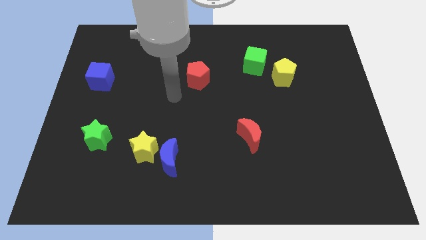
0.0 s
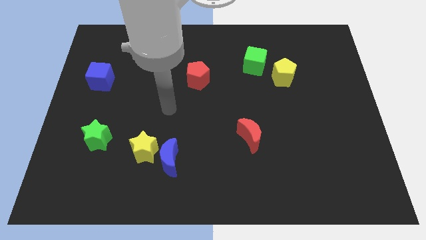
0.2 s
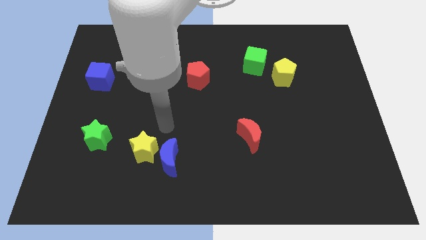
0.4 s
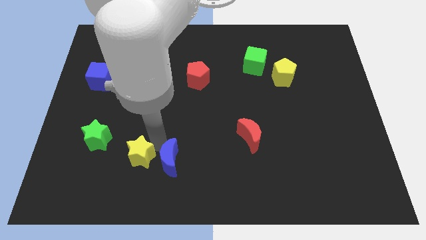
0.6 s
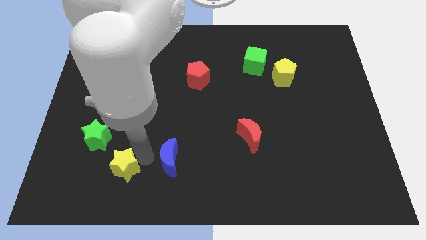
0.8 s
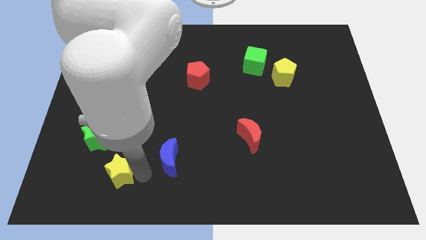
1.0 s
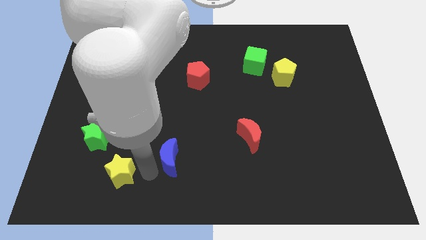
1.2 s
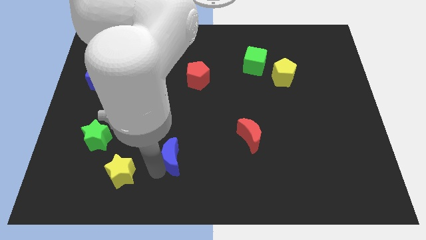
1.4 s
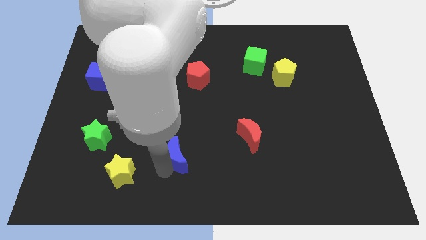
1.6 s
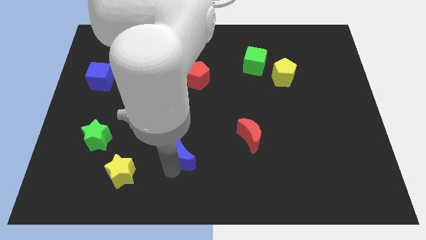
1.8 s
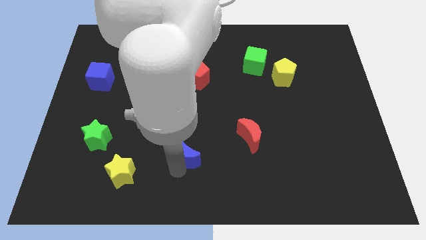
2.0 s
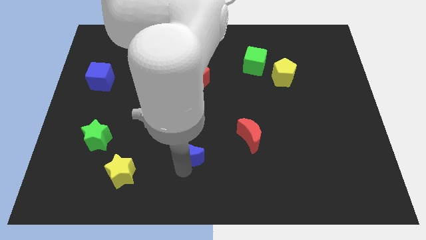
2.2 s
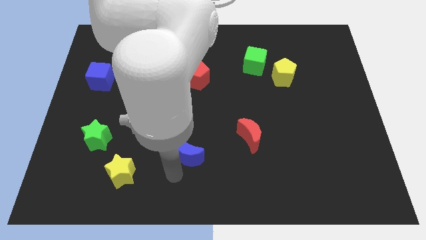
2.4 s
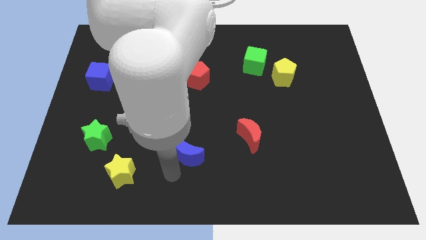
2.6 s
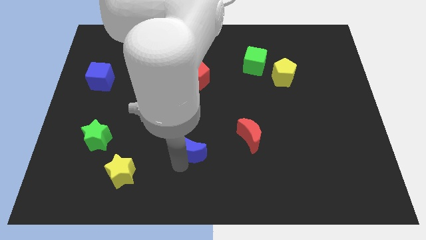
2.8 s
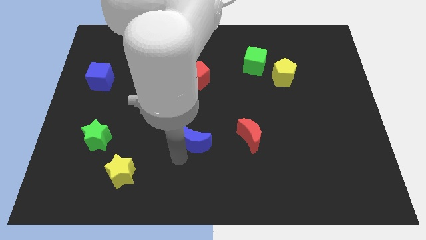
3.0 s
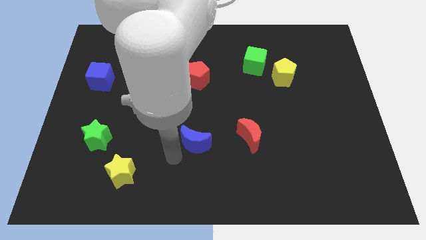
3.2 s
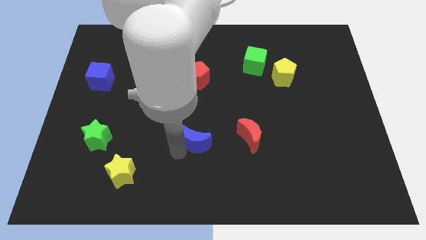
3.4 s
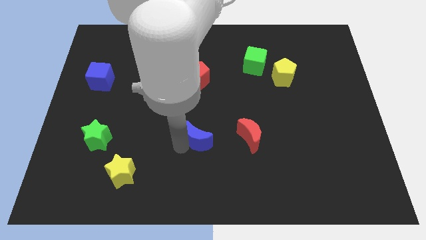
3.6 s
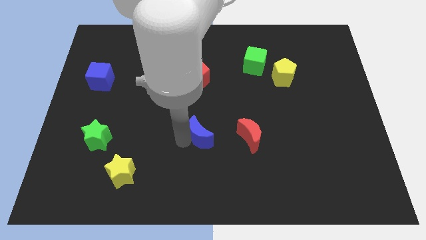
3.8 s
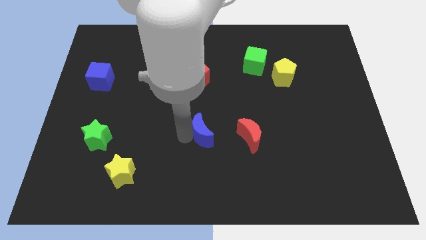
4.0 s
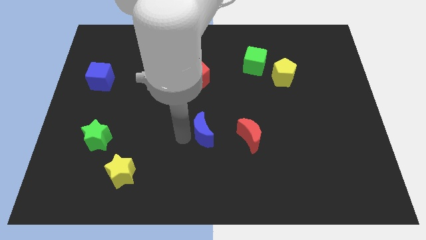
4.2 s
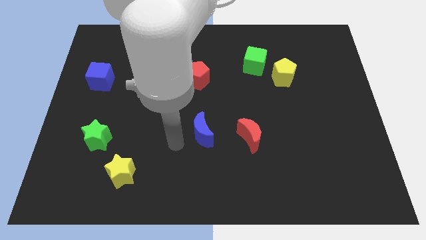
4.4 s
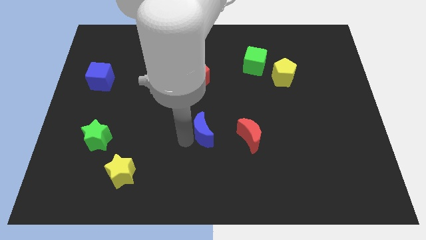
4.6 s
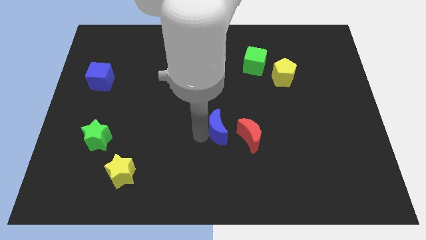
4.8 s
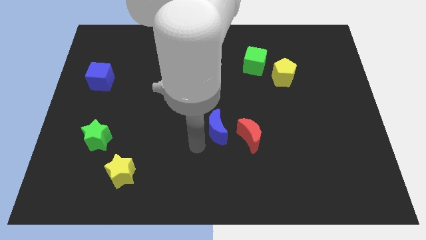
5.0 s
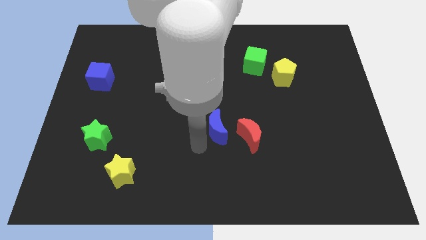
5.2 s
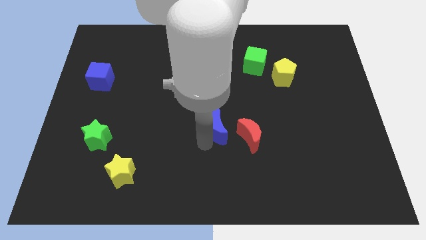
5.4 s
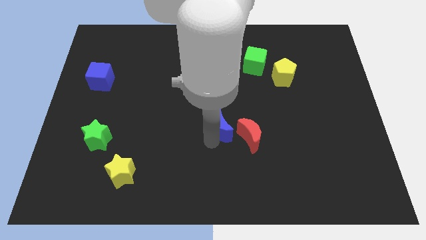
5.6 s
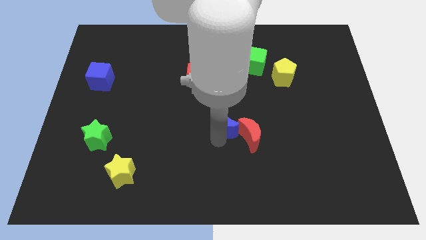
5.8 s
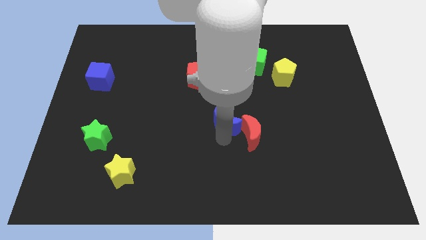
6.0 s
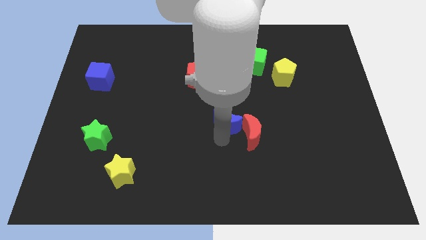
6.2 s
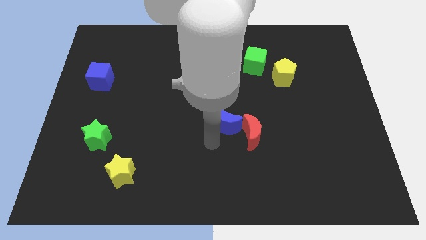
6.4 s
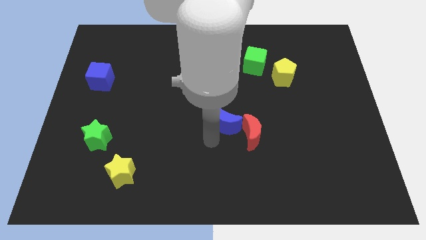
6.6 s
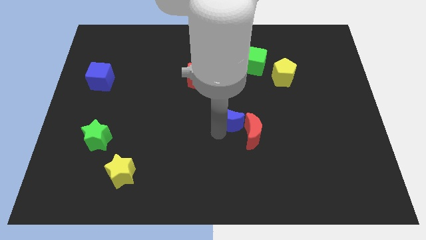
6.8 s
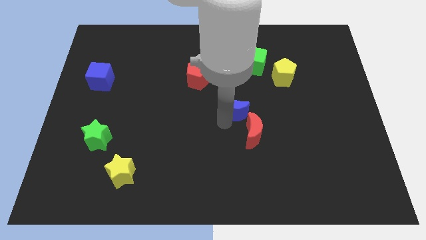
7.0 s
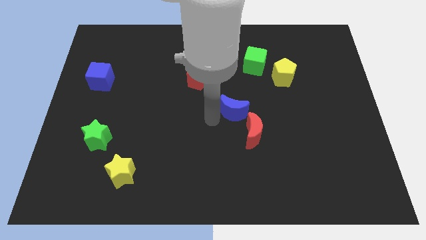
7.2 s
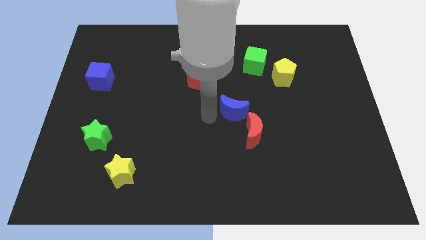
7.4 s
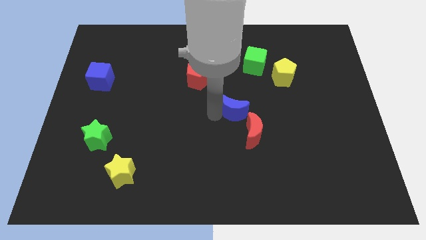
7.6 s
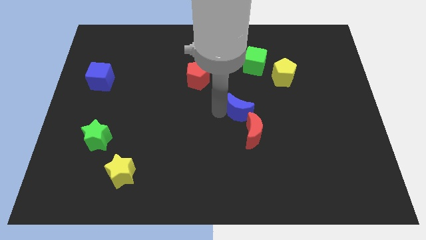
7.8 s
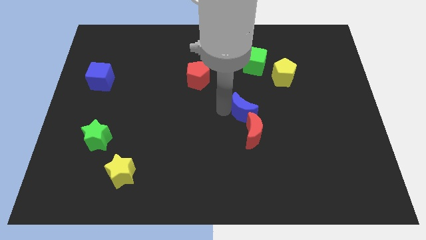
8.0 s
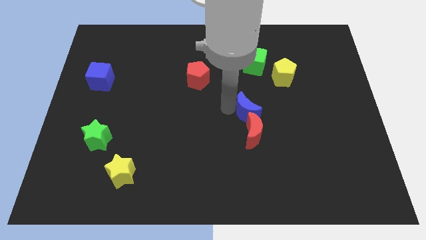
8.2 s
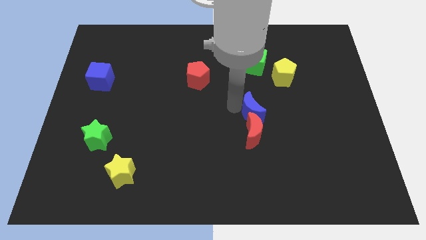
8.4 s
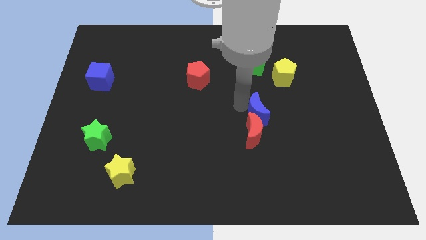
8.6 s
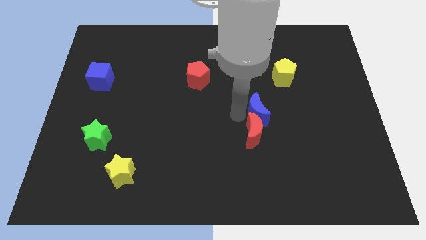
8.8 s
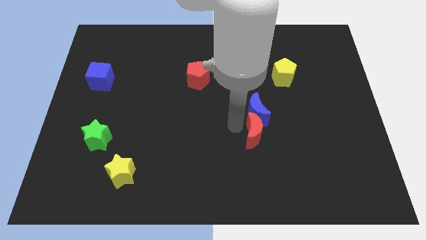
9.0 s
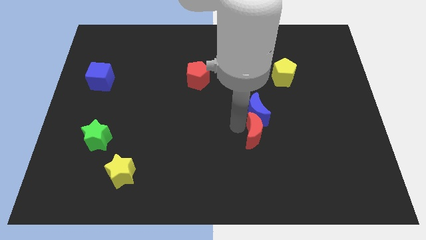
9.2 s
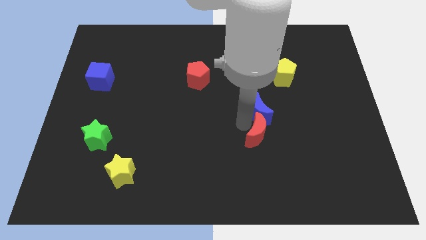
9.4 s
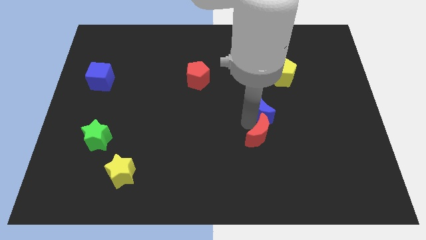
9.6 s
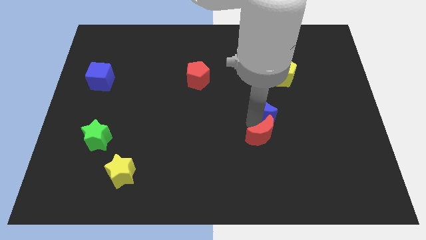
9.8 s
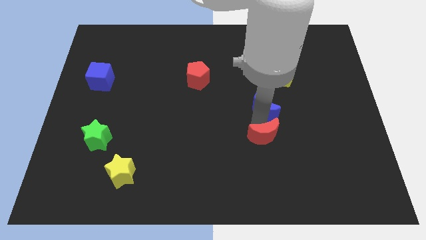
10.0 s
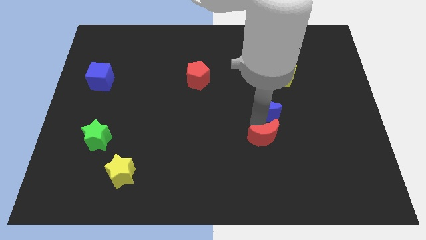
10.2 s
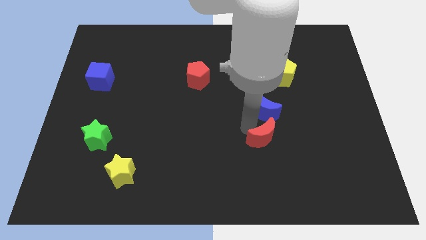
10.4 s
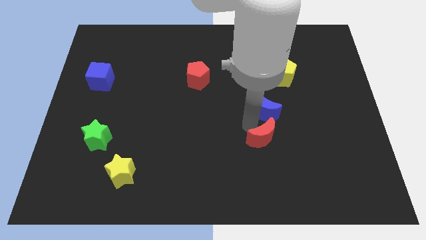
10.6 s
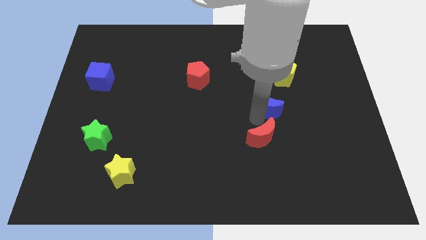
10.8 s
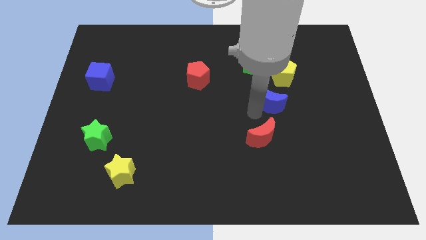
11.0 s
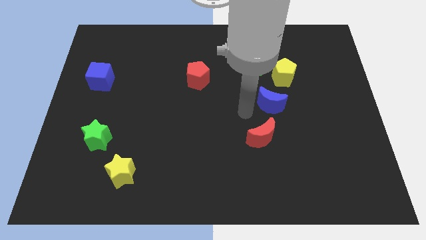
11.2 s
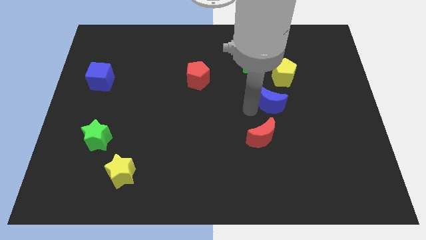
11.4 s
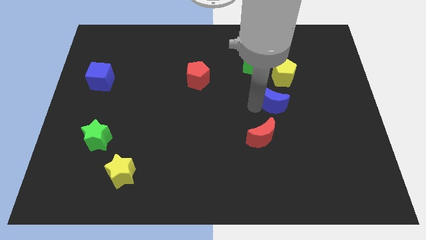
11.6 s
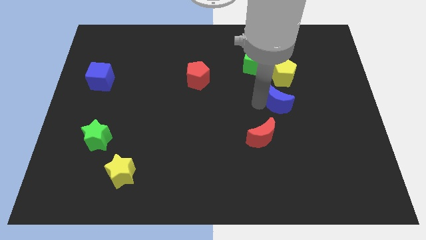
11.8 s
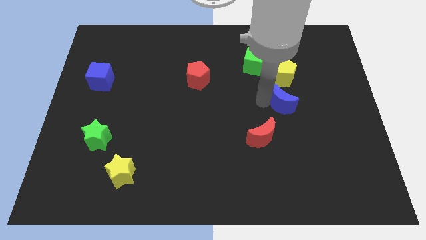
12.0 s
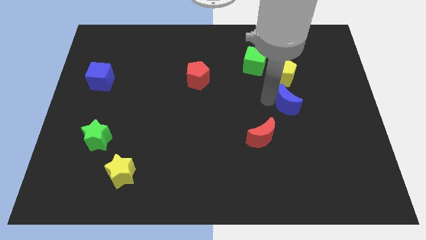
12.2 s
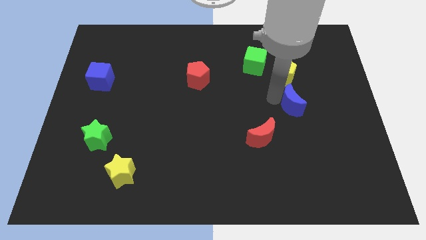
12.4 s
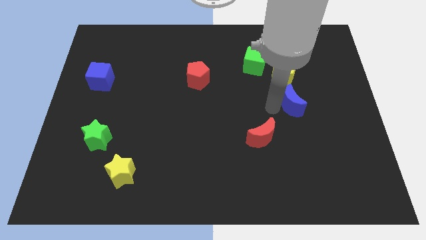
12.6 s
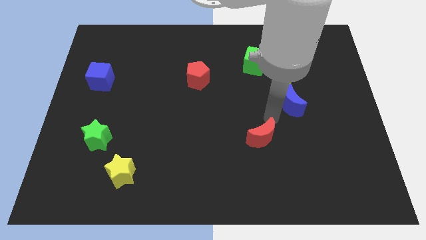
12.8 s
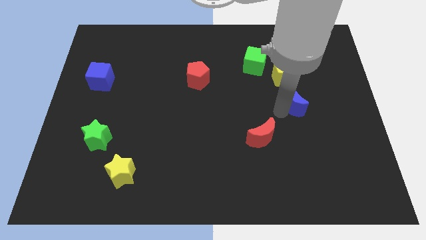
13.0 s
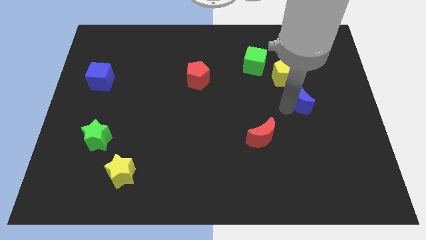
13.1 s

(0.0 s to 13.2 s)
move the blue moon to the bottom right of the yellow pentagon

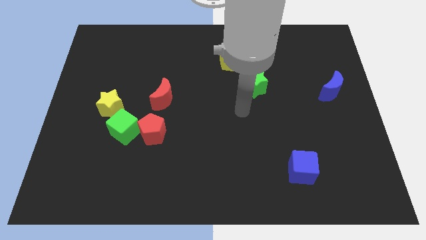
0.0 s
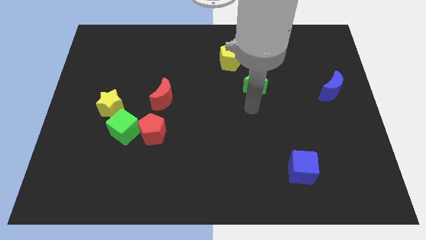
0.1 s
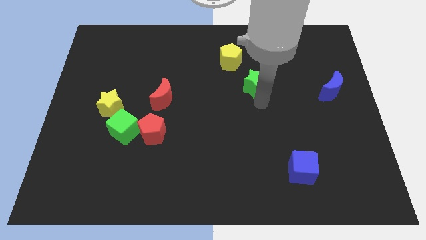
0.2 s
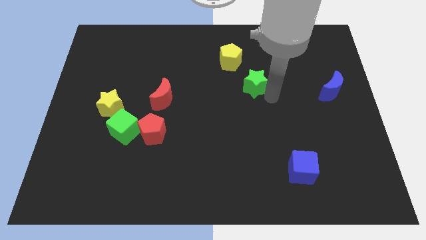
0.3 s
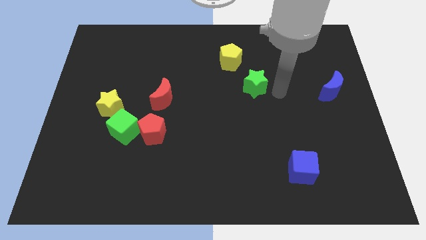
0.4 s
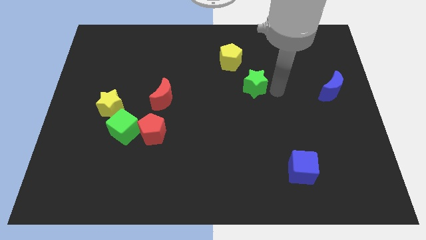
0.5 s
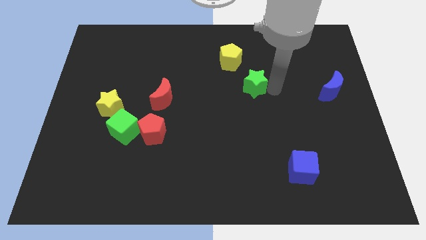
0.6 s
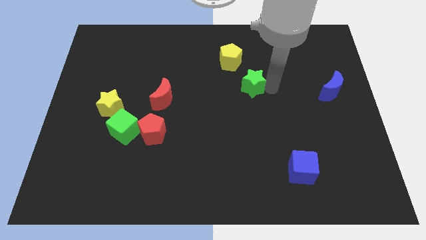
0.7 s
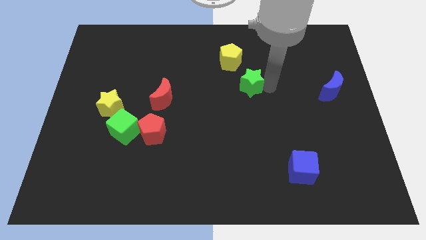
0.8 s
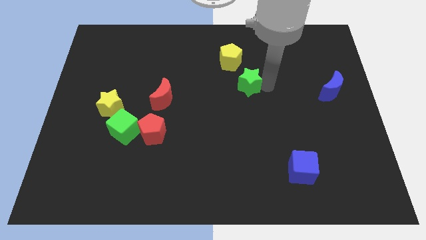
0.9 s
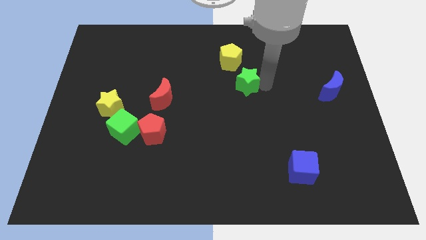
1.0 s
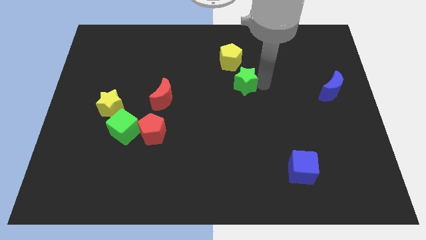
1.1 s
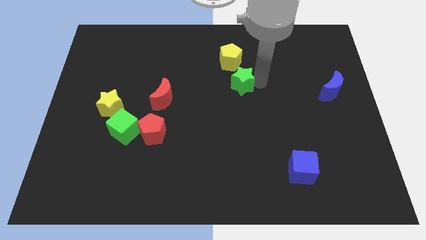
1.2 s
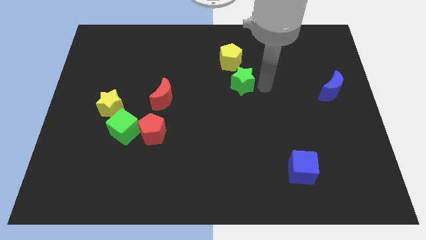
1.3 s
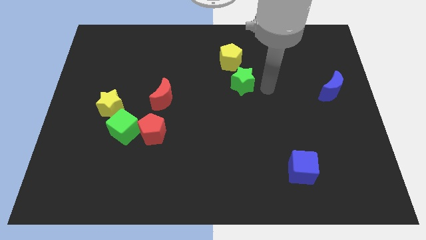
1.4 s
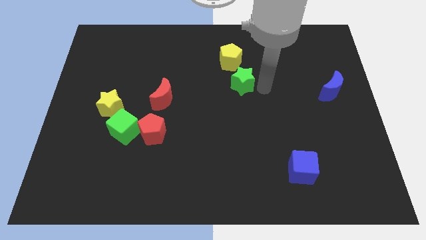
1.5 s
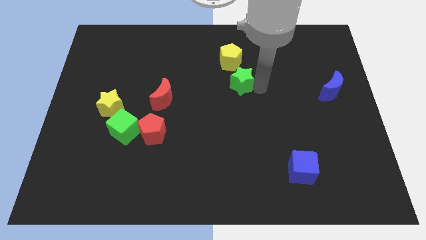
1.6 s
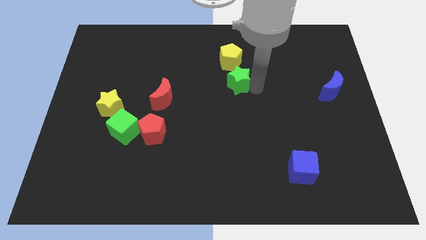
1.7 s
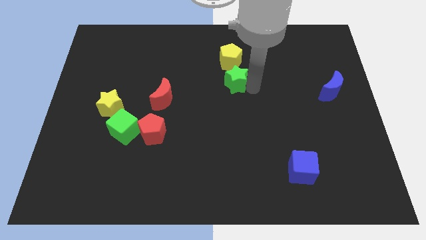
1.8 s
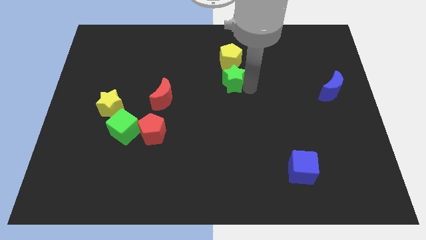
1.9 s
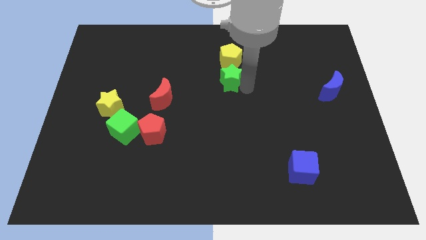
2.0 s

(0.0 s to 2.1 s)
push the green star to the bottom left of the yellow pentagon
